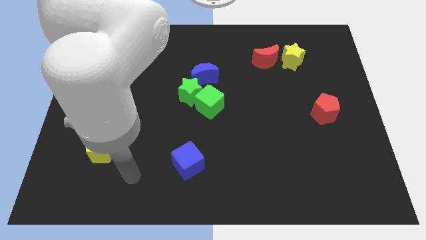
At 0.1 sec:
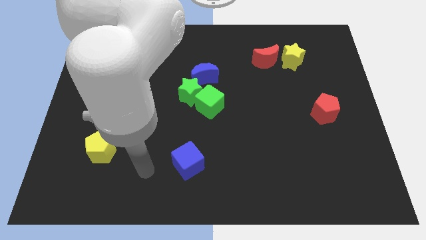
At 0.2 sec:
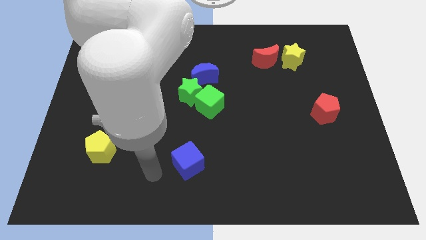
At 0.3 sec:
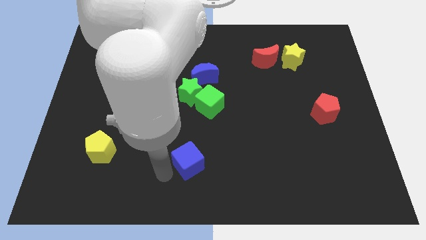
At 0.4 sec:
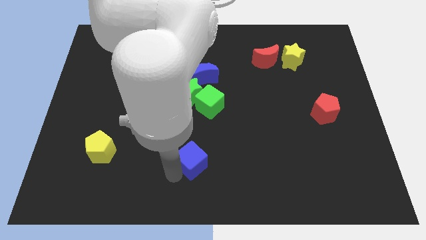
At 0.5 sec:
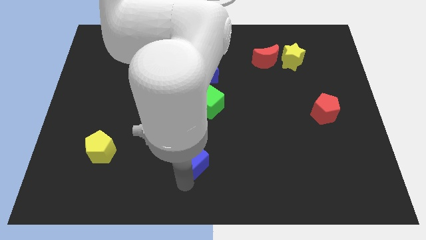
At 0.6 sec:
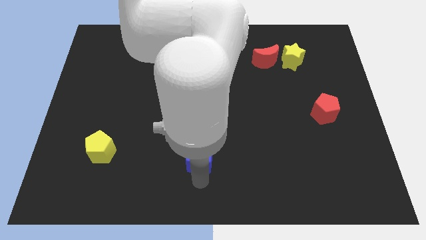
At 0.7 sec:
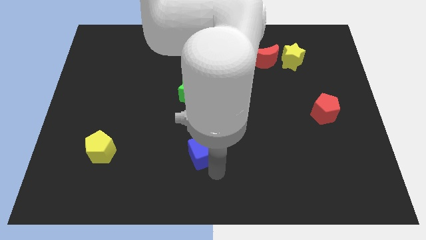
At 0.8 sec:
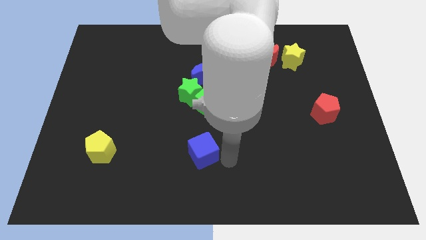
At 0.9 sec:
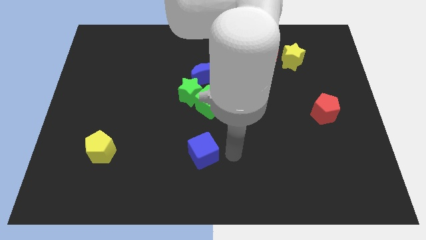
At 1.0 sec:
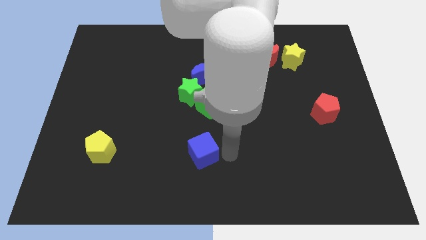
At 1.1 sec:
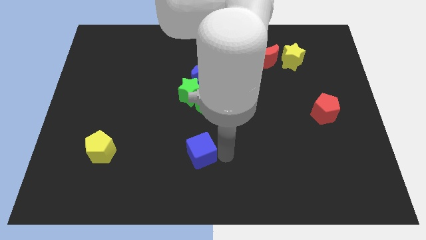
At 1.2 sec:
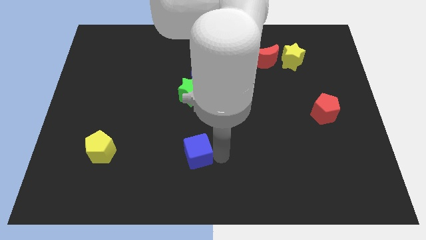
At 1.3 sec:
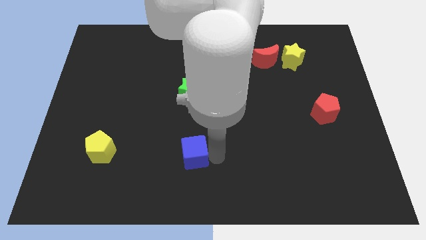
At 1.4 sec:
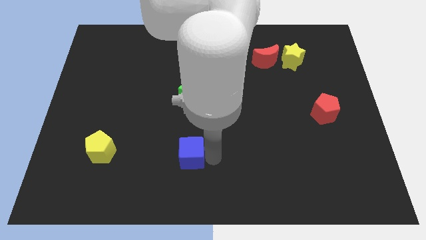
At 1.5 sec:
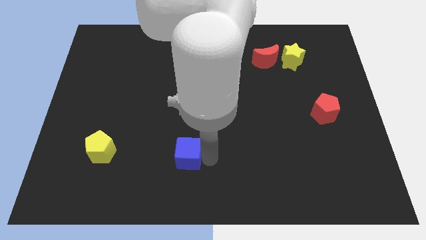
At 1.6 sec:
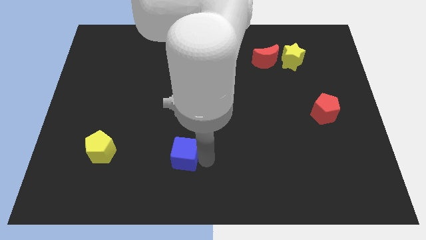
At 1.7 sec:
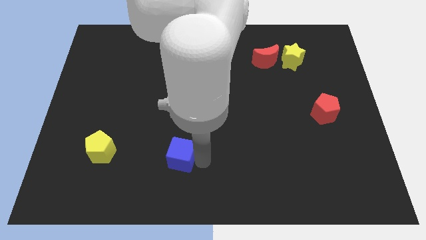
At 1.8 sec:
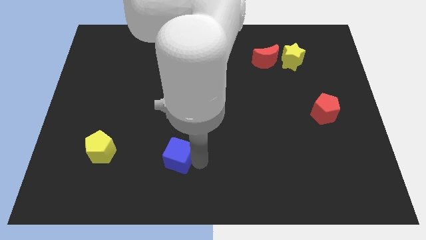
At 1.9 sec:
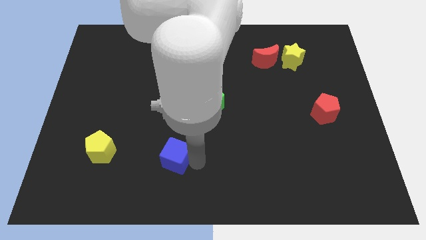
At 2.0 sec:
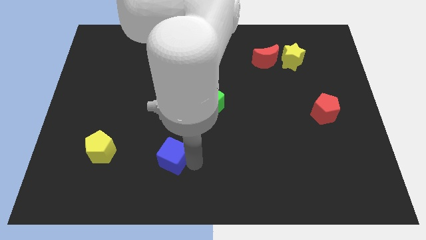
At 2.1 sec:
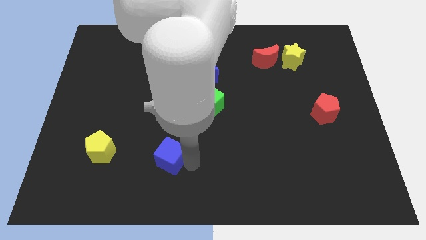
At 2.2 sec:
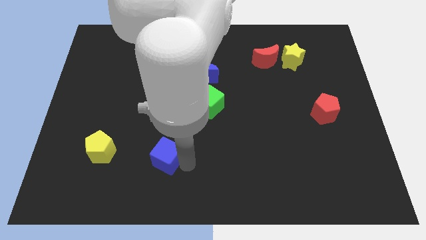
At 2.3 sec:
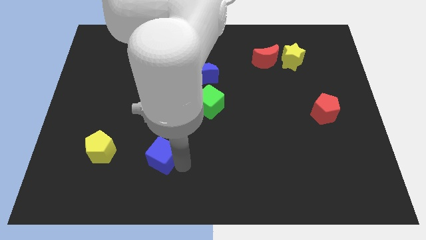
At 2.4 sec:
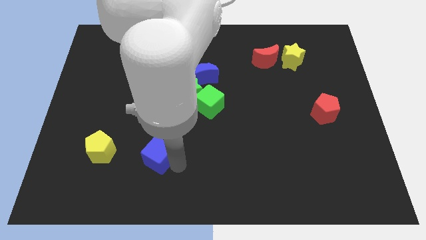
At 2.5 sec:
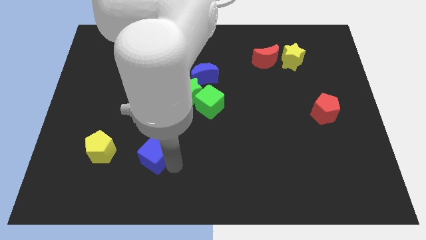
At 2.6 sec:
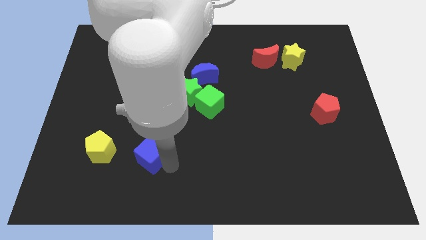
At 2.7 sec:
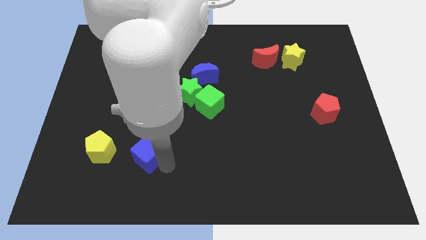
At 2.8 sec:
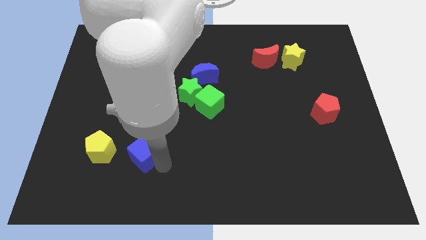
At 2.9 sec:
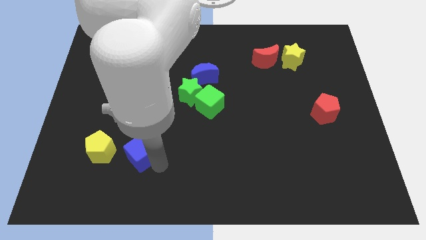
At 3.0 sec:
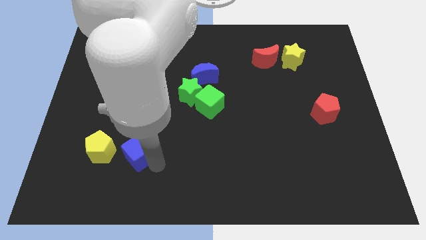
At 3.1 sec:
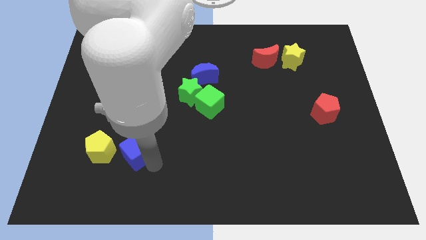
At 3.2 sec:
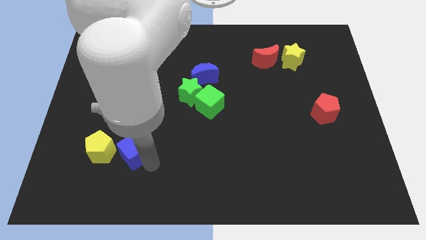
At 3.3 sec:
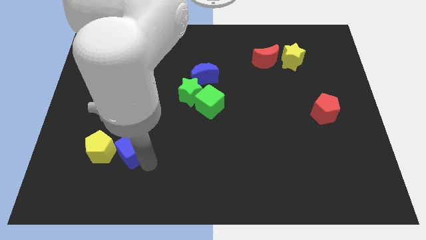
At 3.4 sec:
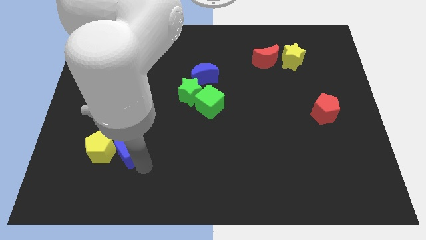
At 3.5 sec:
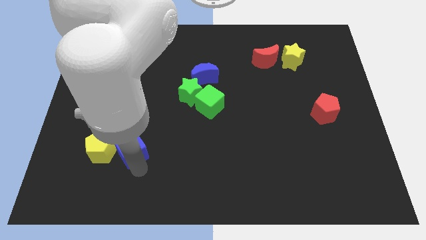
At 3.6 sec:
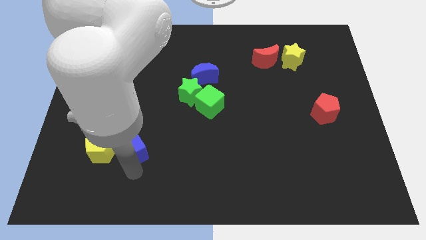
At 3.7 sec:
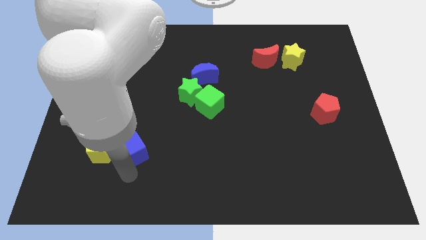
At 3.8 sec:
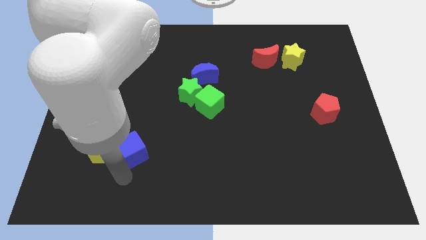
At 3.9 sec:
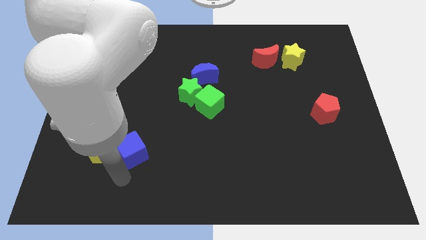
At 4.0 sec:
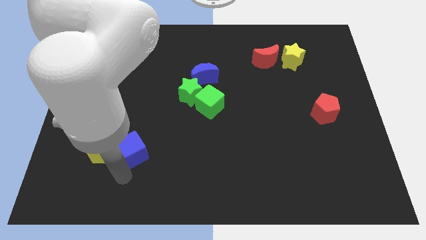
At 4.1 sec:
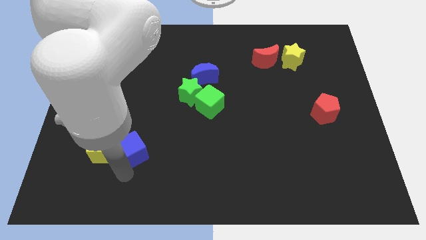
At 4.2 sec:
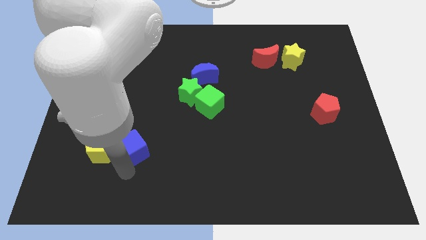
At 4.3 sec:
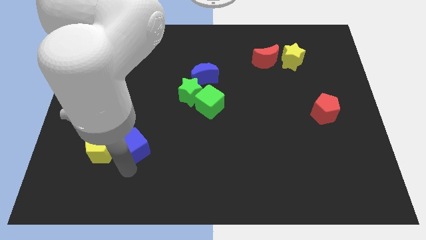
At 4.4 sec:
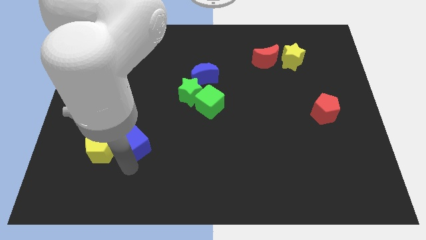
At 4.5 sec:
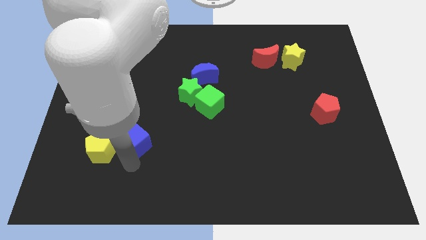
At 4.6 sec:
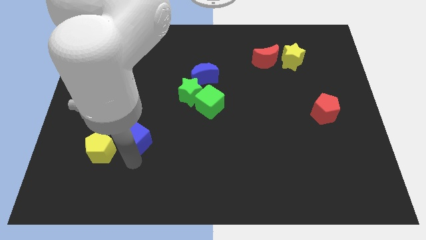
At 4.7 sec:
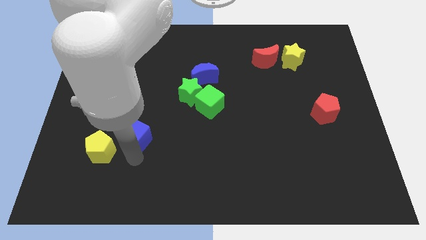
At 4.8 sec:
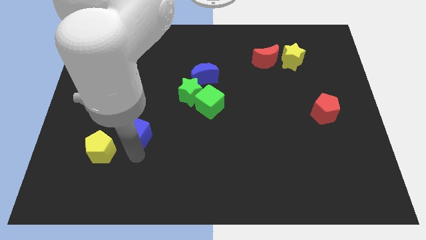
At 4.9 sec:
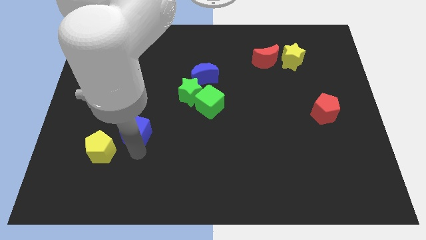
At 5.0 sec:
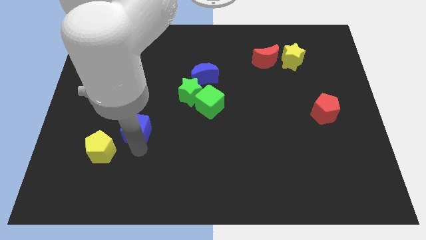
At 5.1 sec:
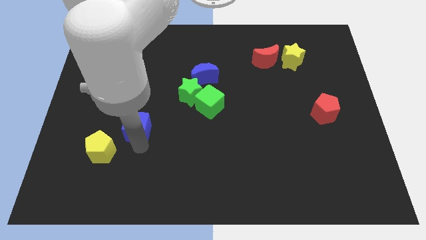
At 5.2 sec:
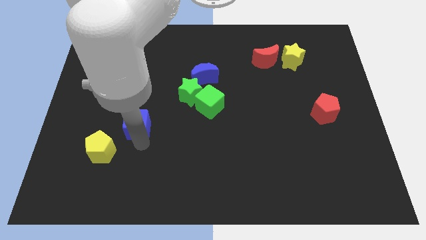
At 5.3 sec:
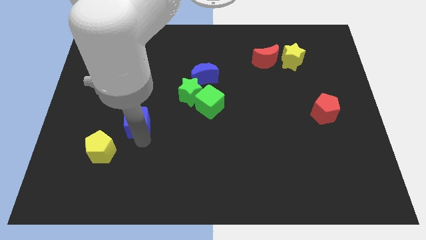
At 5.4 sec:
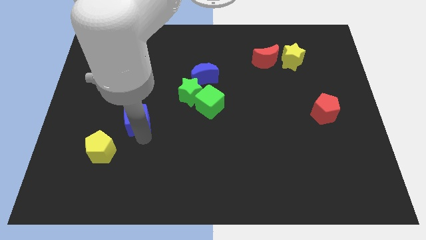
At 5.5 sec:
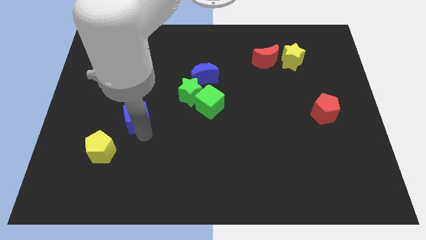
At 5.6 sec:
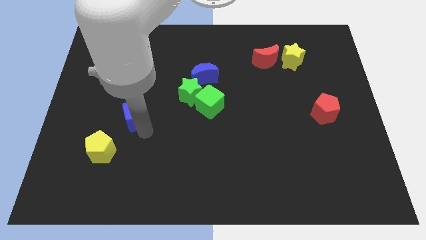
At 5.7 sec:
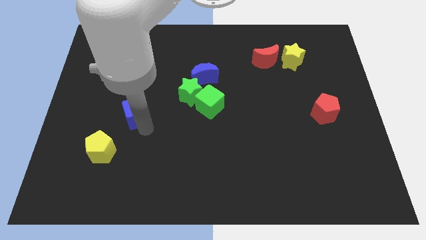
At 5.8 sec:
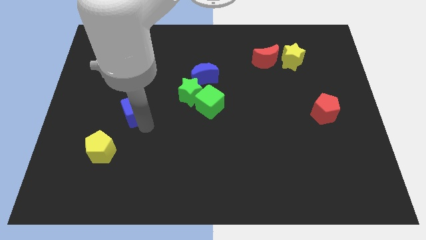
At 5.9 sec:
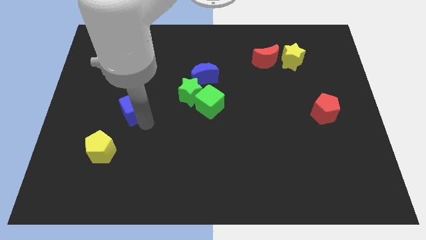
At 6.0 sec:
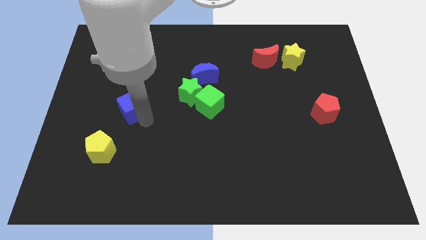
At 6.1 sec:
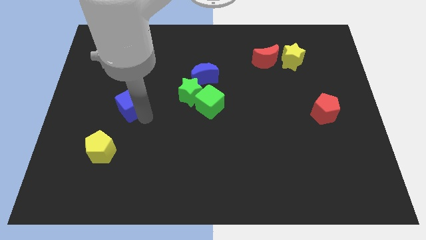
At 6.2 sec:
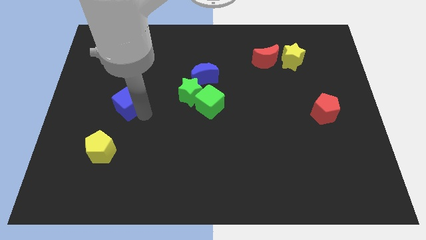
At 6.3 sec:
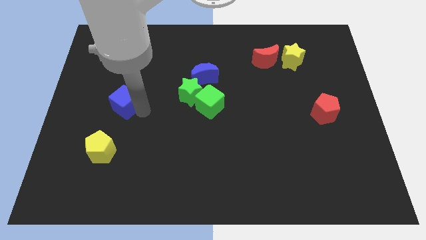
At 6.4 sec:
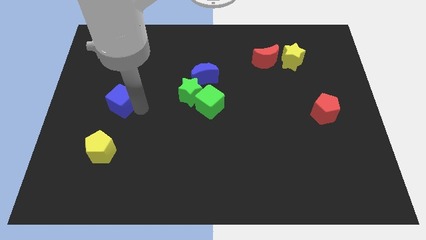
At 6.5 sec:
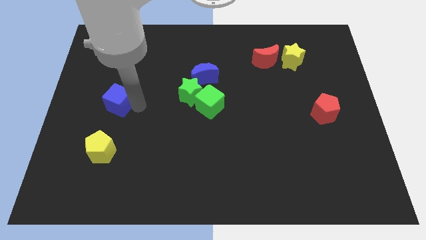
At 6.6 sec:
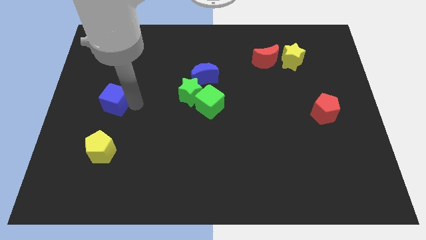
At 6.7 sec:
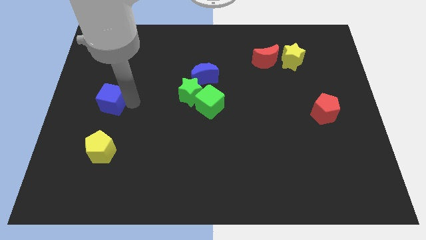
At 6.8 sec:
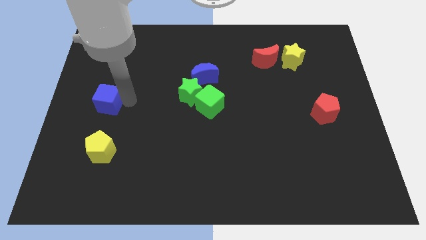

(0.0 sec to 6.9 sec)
move the blue cube to the left side of the board
